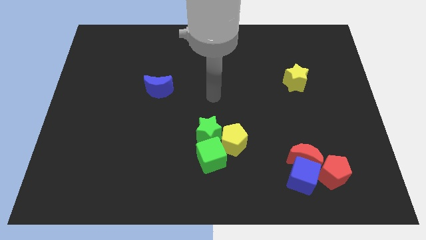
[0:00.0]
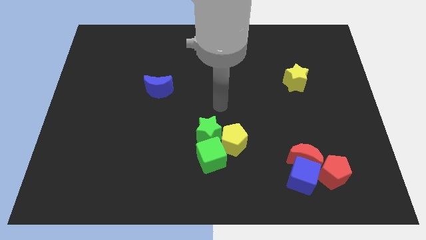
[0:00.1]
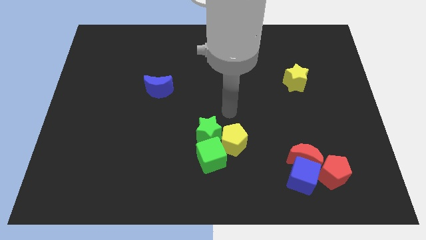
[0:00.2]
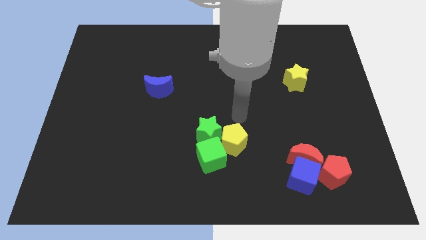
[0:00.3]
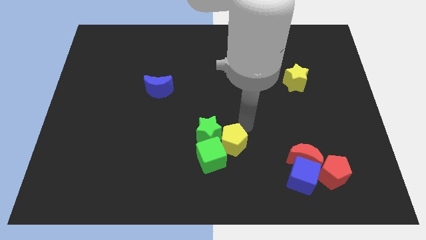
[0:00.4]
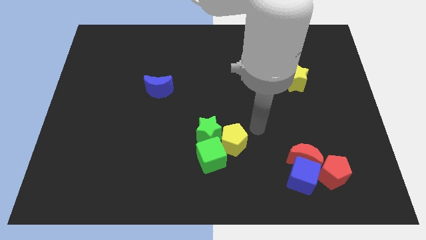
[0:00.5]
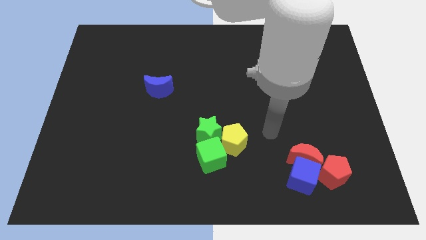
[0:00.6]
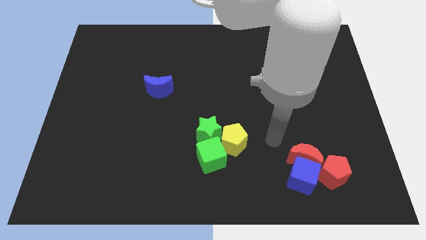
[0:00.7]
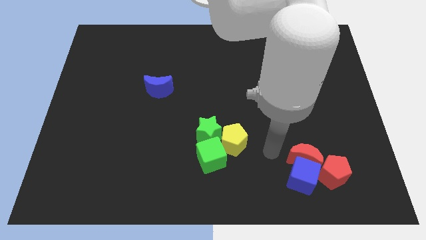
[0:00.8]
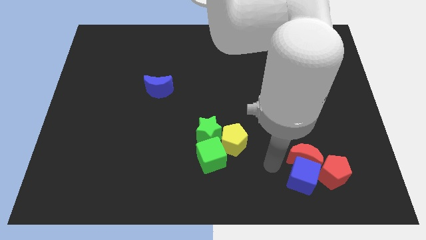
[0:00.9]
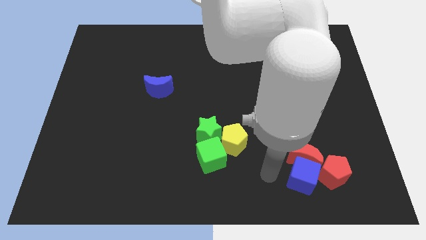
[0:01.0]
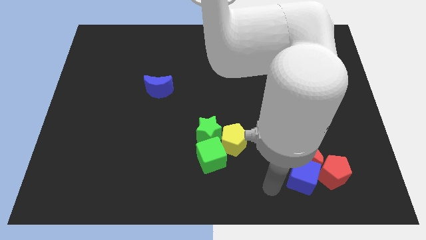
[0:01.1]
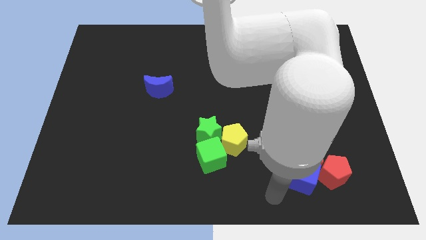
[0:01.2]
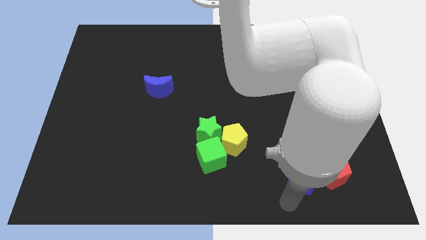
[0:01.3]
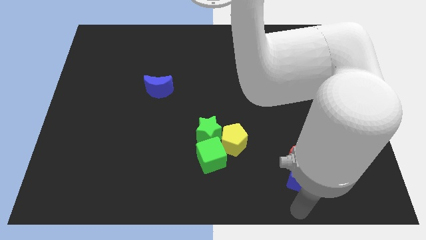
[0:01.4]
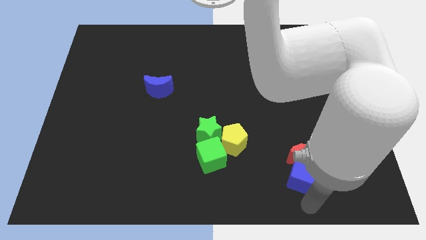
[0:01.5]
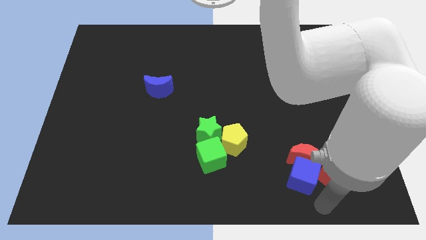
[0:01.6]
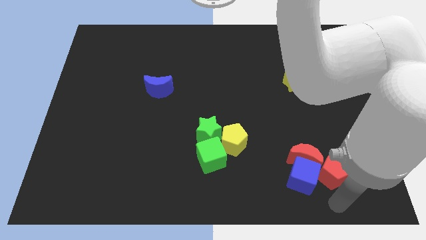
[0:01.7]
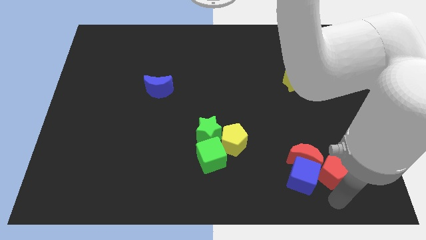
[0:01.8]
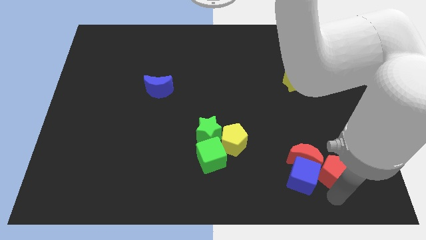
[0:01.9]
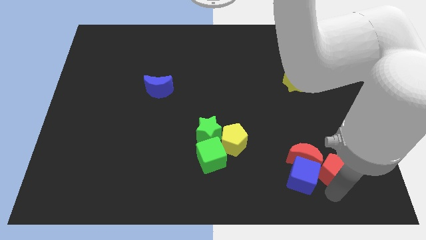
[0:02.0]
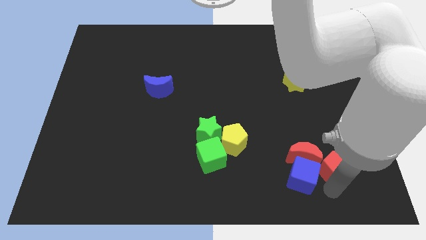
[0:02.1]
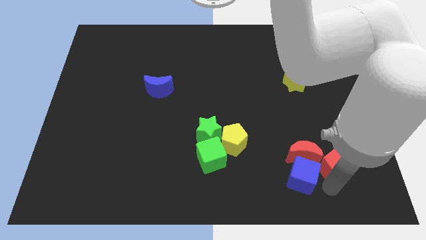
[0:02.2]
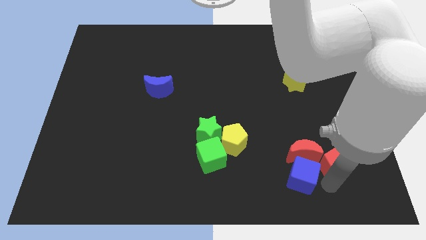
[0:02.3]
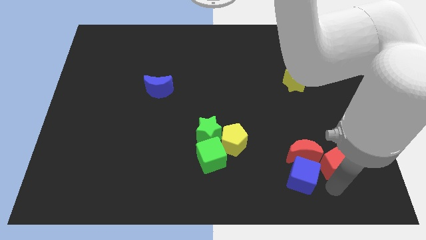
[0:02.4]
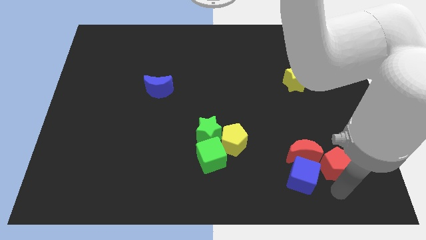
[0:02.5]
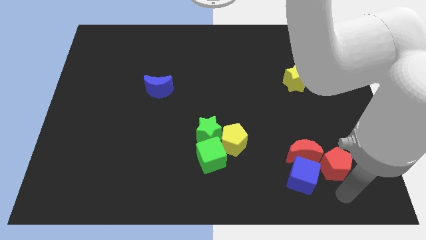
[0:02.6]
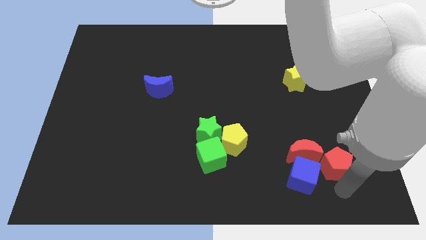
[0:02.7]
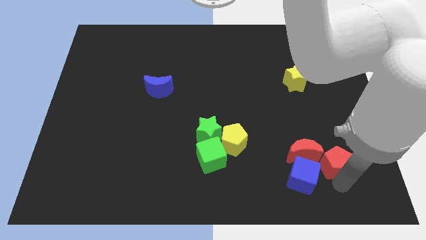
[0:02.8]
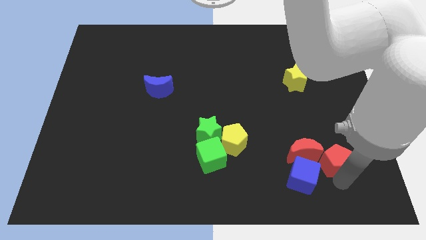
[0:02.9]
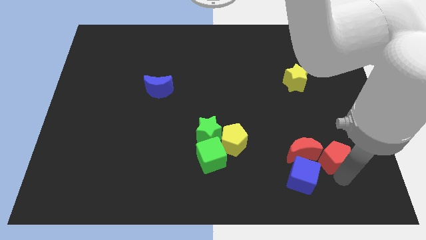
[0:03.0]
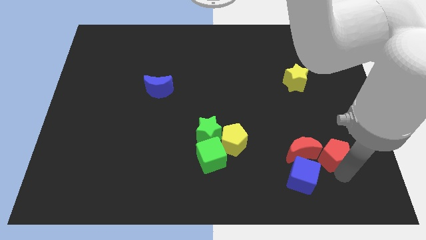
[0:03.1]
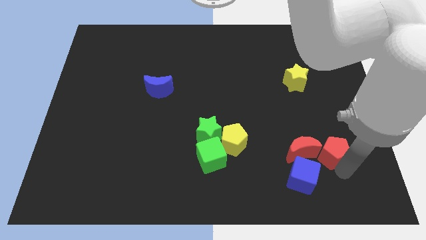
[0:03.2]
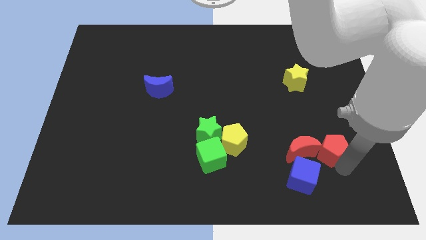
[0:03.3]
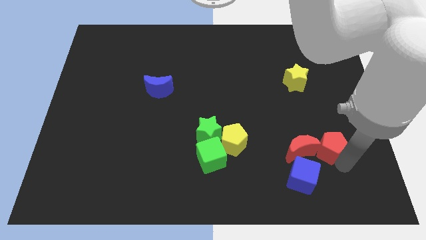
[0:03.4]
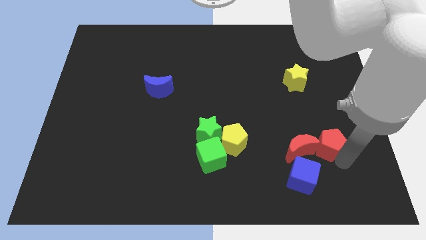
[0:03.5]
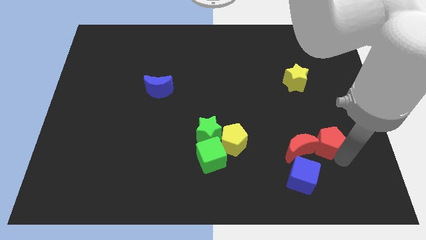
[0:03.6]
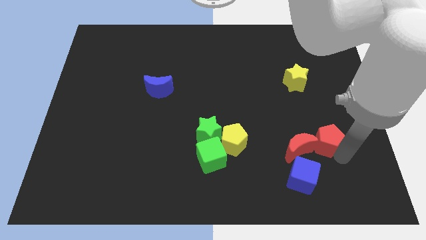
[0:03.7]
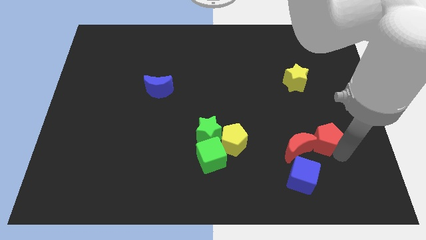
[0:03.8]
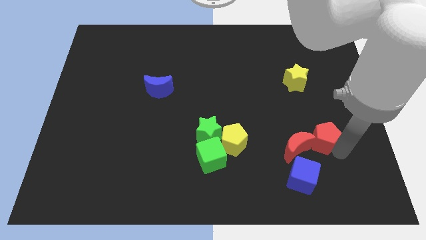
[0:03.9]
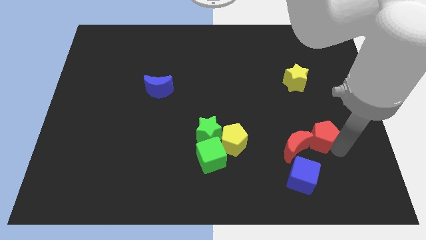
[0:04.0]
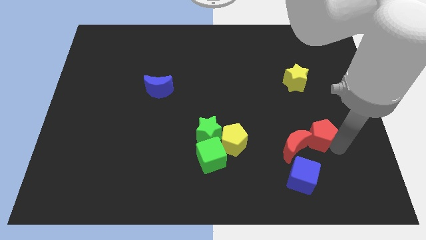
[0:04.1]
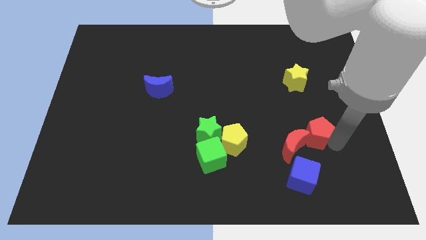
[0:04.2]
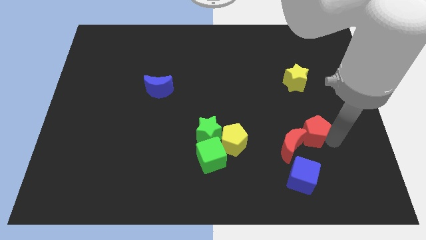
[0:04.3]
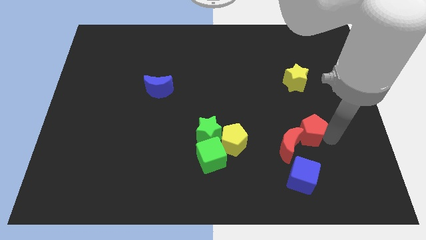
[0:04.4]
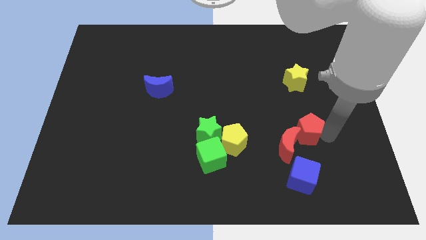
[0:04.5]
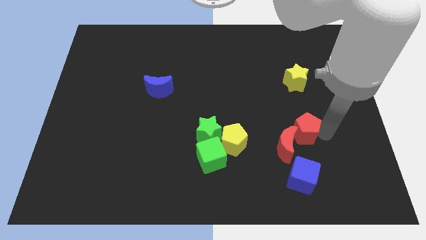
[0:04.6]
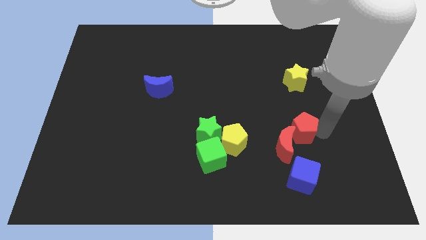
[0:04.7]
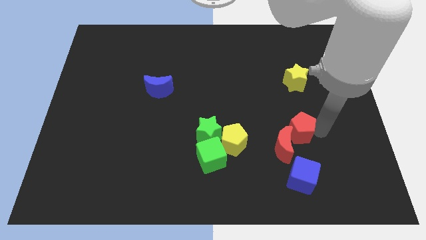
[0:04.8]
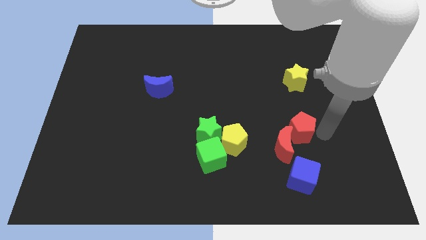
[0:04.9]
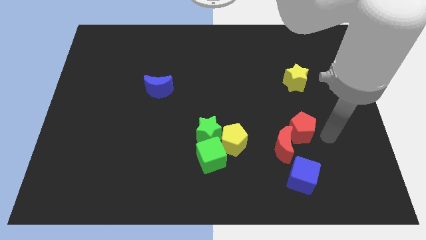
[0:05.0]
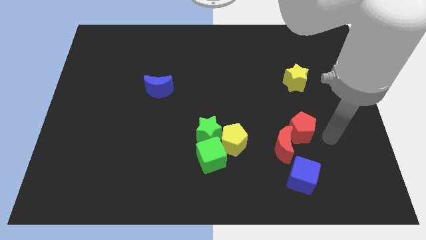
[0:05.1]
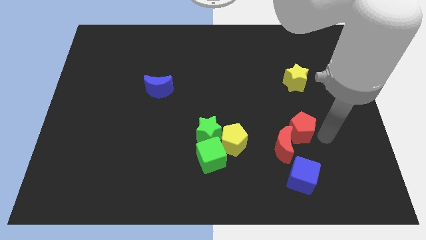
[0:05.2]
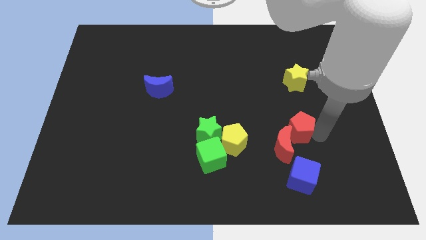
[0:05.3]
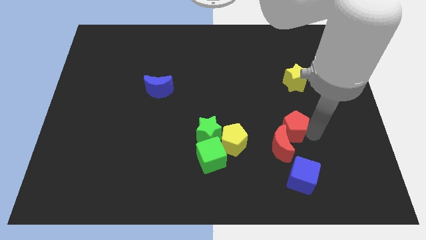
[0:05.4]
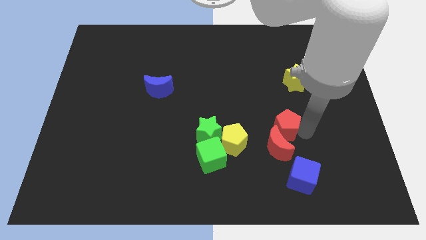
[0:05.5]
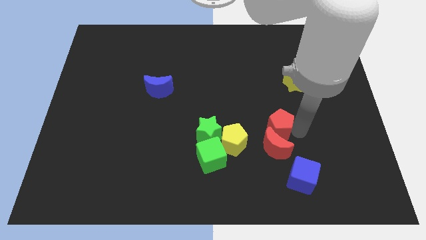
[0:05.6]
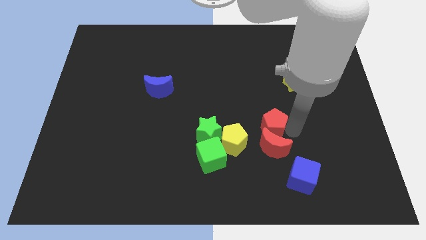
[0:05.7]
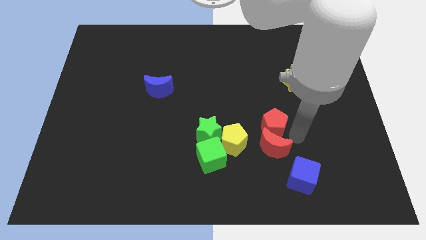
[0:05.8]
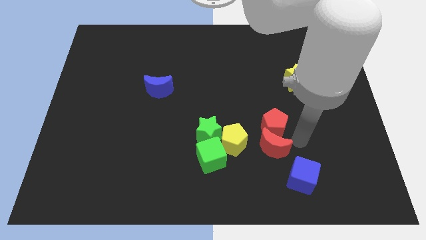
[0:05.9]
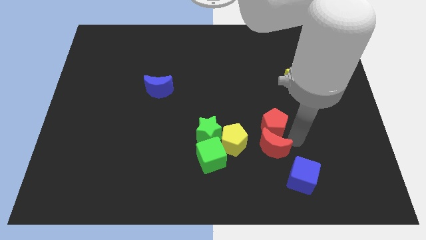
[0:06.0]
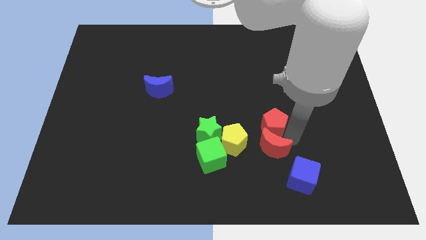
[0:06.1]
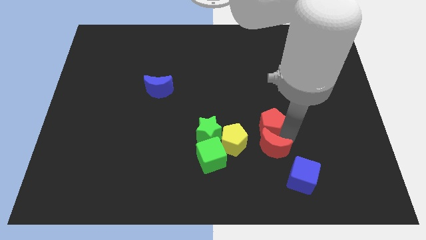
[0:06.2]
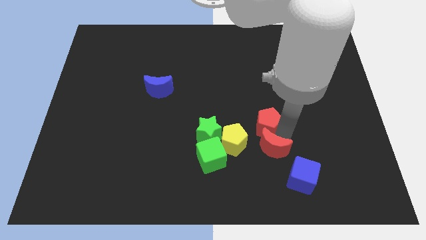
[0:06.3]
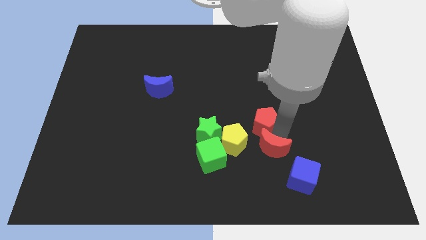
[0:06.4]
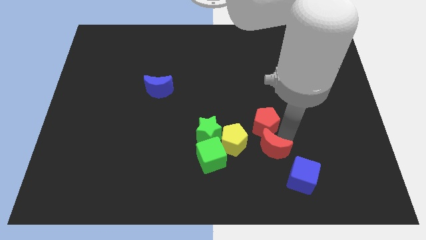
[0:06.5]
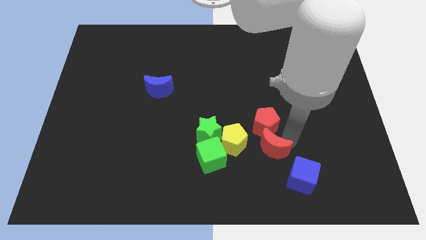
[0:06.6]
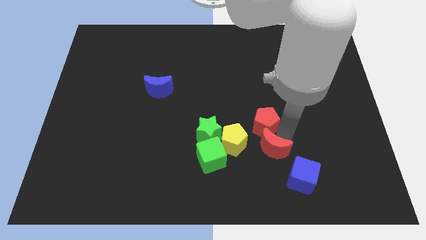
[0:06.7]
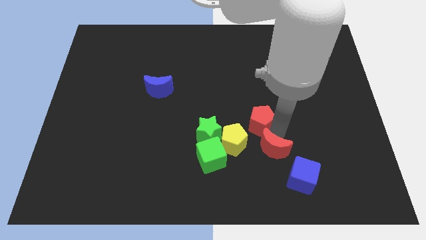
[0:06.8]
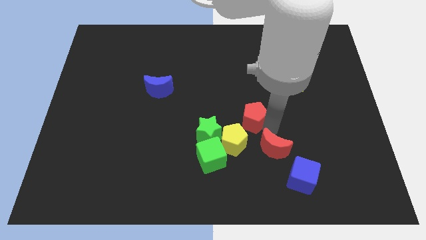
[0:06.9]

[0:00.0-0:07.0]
put the red pentagon to the center of the board

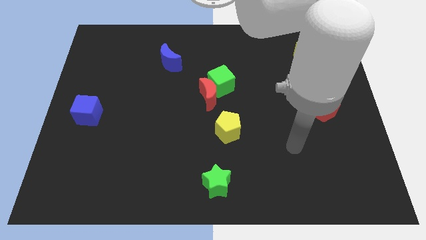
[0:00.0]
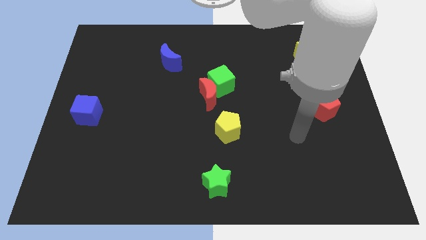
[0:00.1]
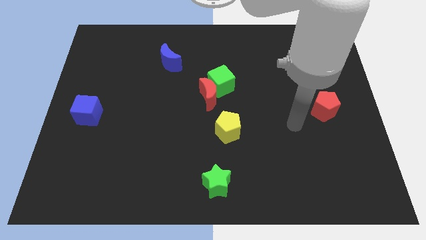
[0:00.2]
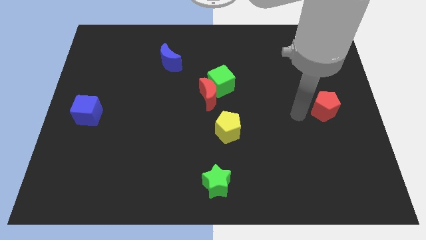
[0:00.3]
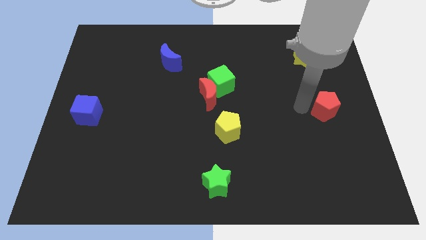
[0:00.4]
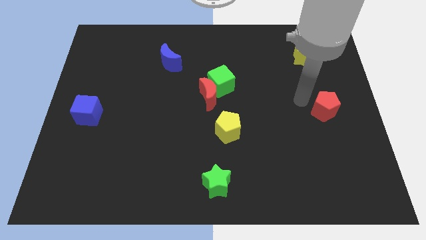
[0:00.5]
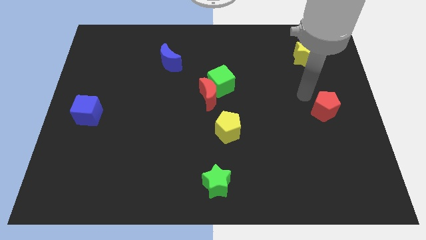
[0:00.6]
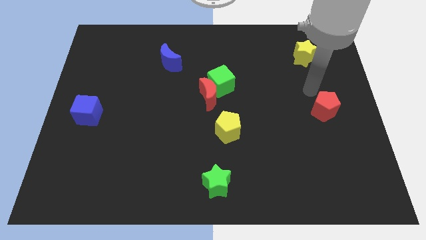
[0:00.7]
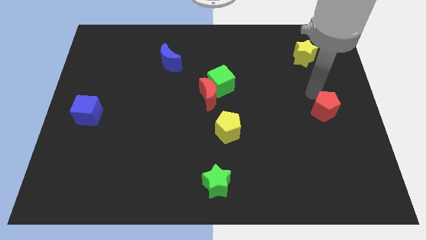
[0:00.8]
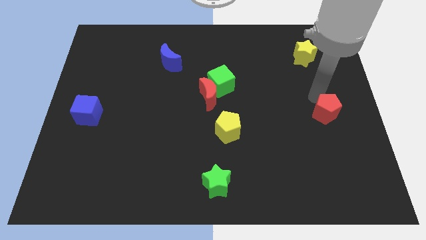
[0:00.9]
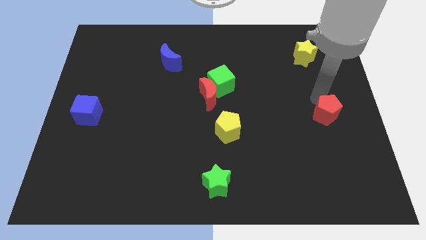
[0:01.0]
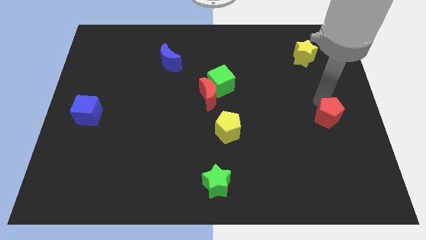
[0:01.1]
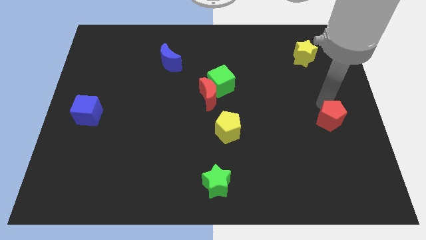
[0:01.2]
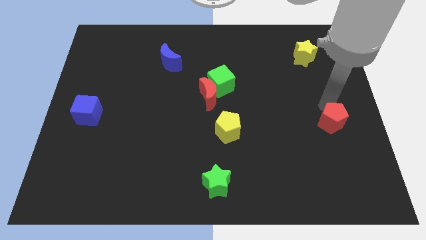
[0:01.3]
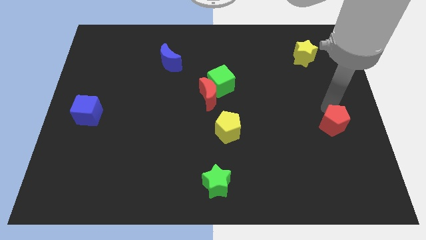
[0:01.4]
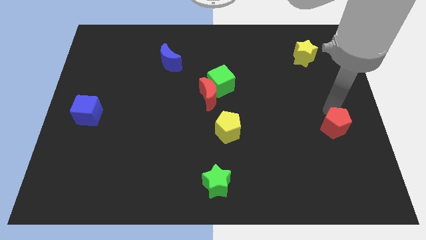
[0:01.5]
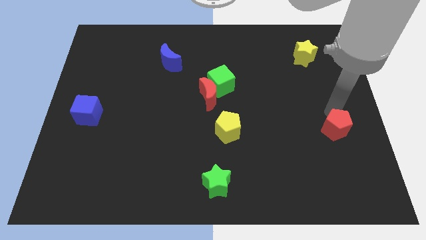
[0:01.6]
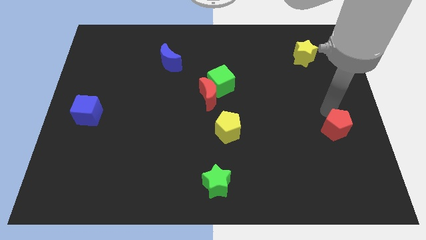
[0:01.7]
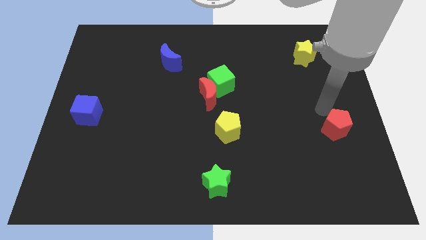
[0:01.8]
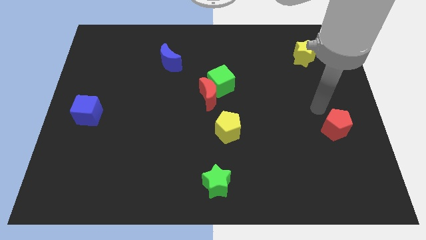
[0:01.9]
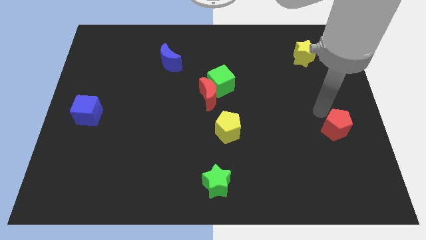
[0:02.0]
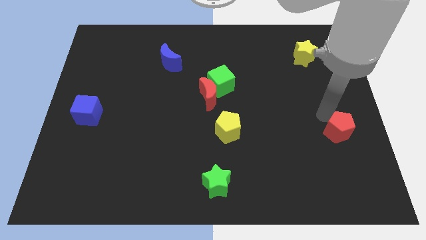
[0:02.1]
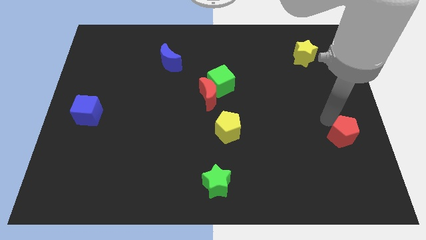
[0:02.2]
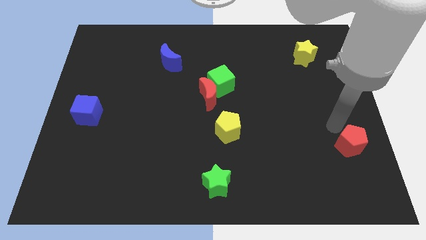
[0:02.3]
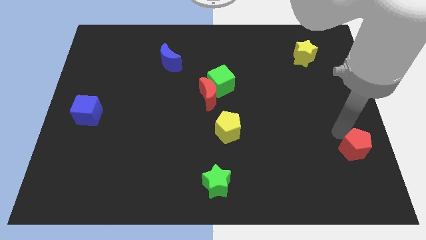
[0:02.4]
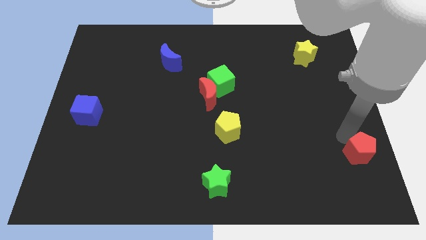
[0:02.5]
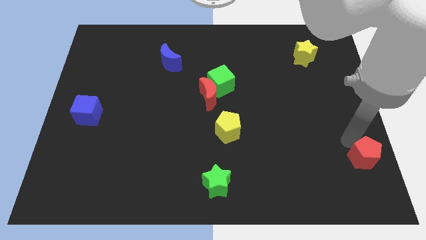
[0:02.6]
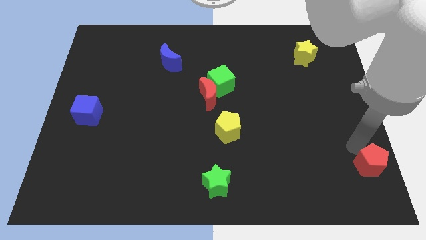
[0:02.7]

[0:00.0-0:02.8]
push the red pentagon to the lower right corner
